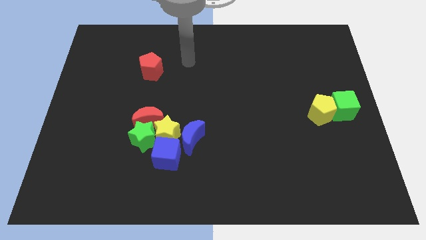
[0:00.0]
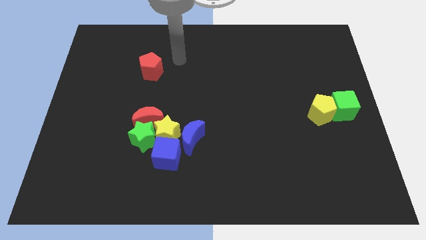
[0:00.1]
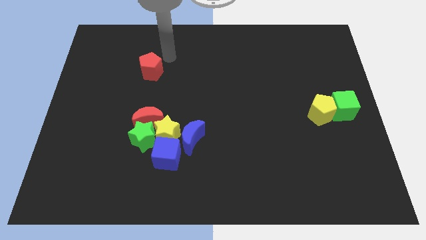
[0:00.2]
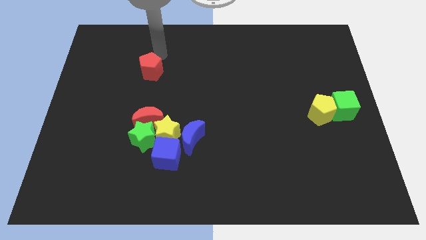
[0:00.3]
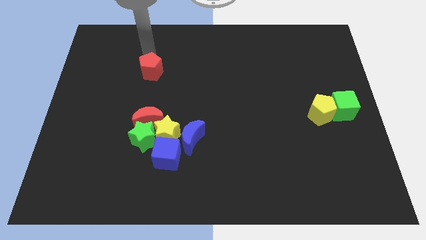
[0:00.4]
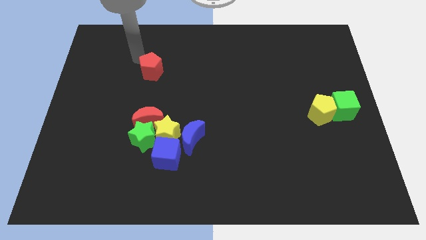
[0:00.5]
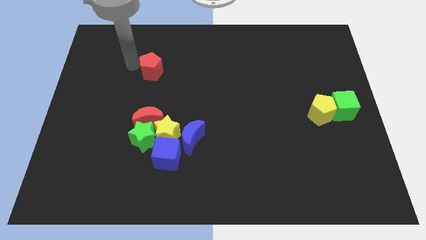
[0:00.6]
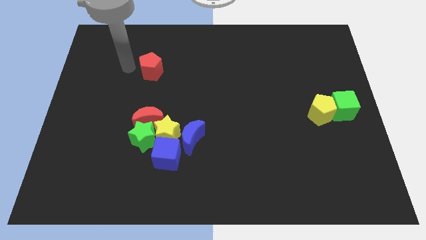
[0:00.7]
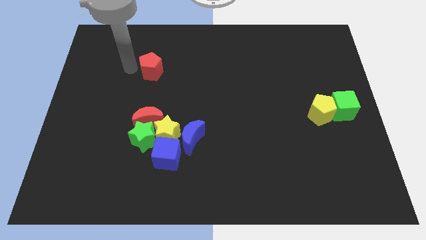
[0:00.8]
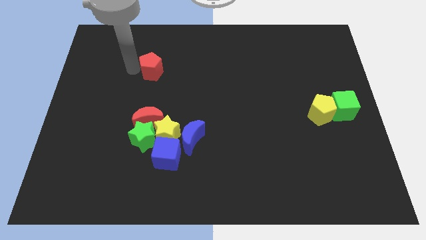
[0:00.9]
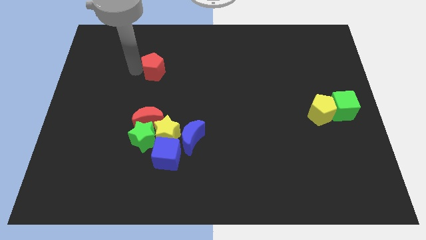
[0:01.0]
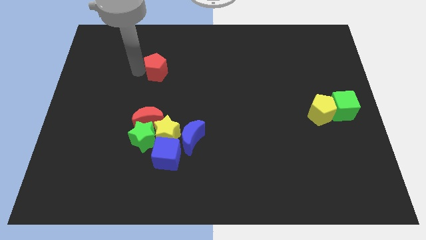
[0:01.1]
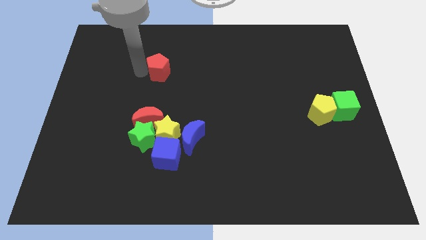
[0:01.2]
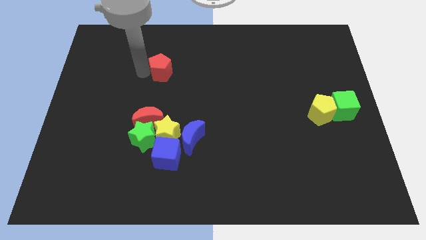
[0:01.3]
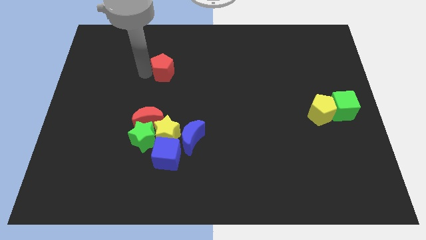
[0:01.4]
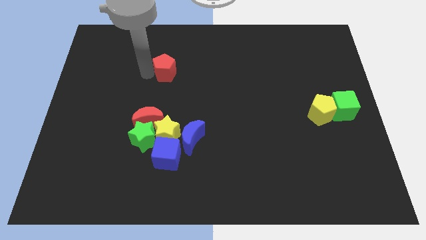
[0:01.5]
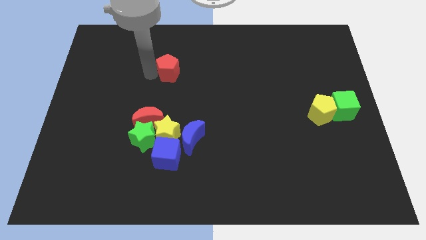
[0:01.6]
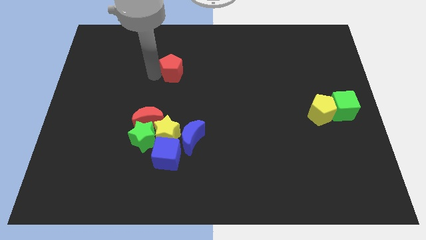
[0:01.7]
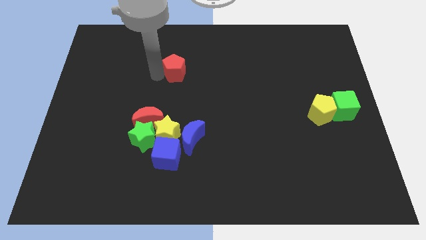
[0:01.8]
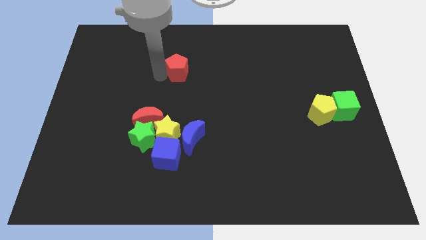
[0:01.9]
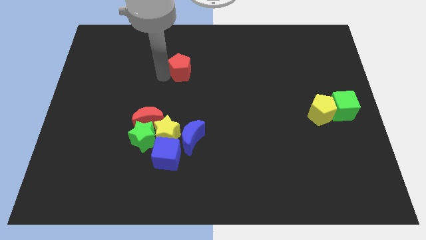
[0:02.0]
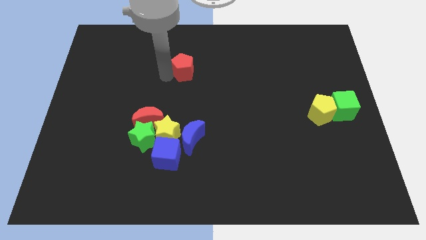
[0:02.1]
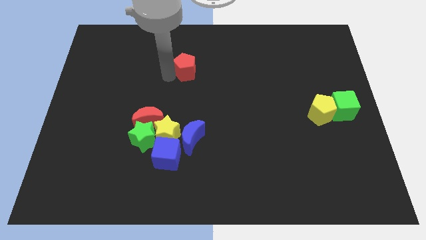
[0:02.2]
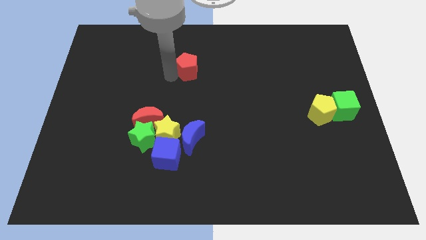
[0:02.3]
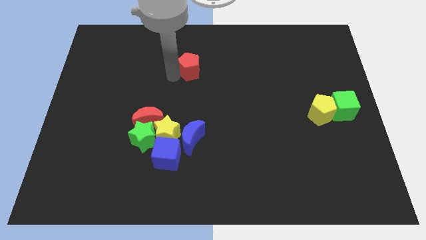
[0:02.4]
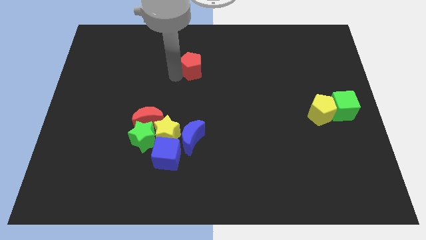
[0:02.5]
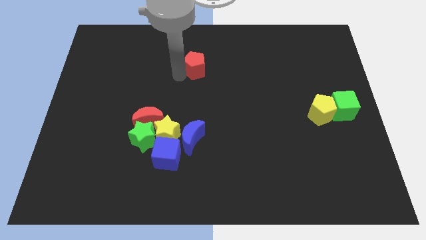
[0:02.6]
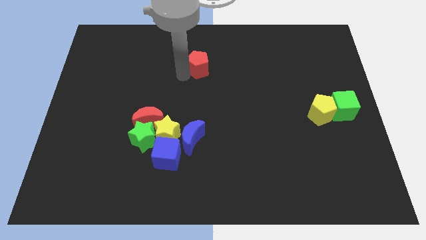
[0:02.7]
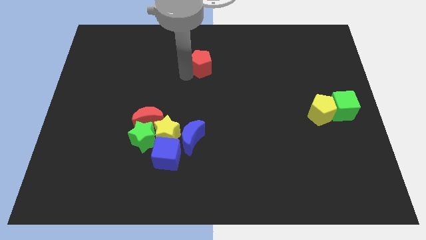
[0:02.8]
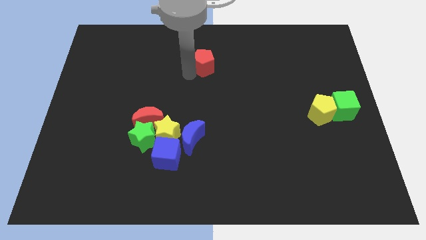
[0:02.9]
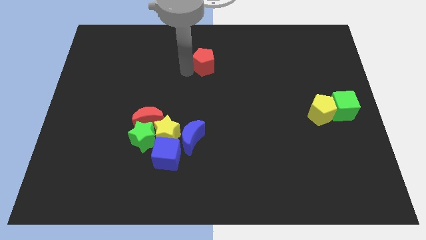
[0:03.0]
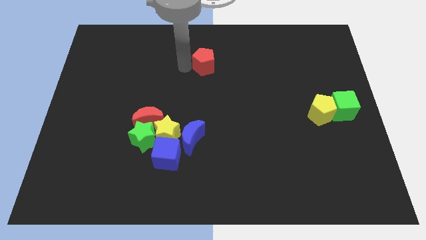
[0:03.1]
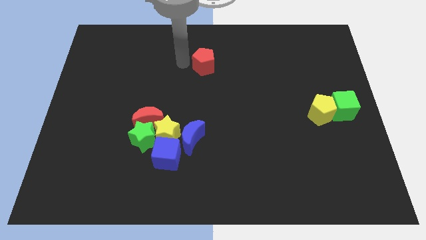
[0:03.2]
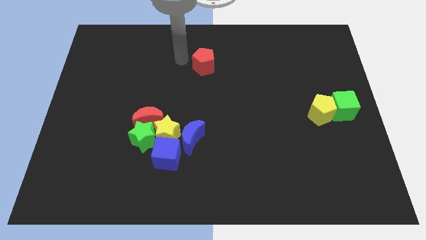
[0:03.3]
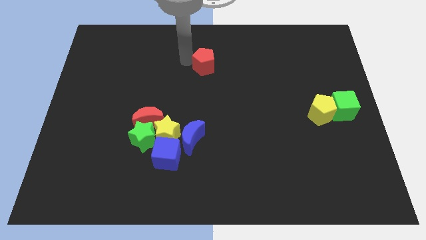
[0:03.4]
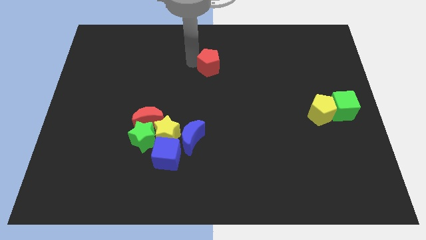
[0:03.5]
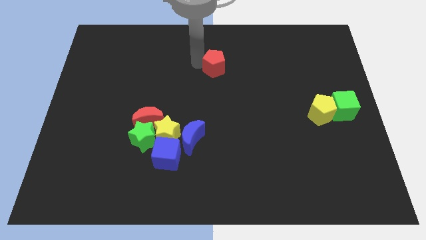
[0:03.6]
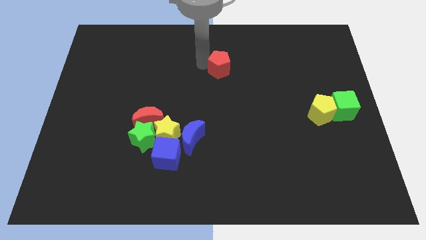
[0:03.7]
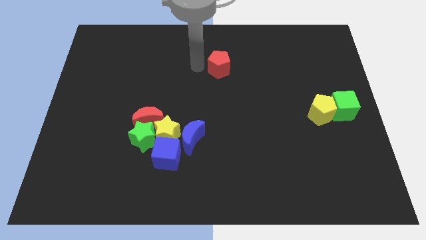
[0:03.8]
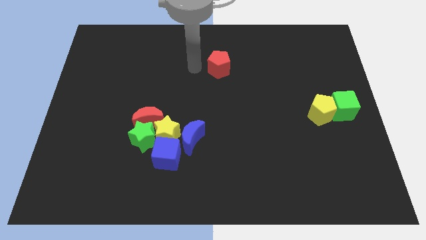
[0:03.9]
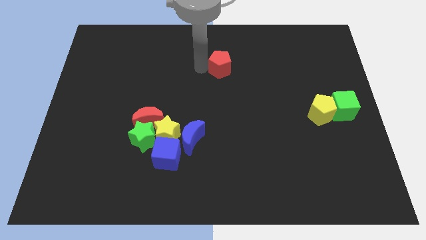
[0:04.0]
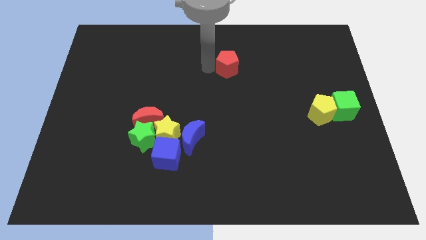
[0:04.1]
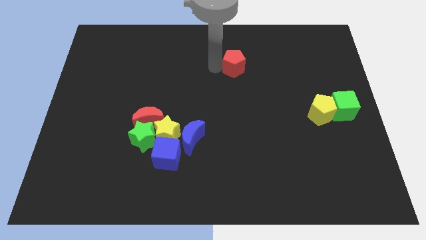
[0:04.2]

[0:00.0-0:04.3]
move the red pentagon to the right

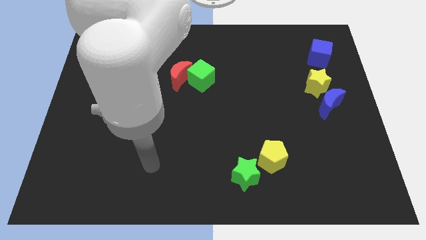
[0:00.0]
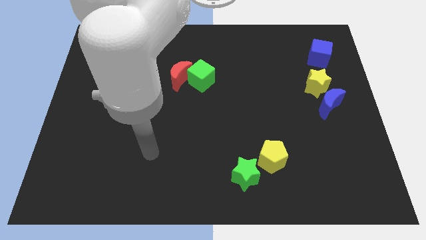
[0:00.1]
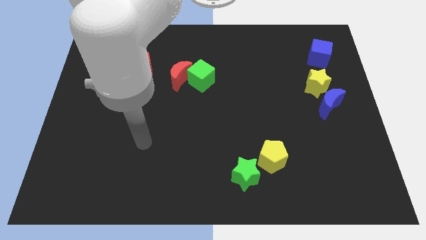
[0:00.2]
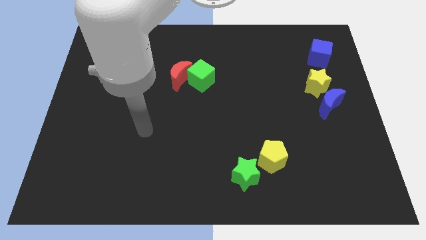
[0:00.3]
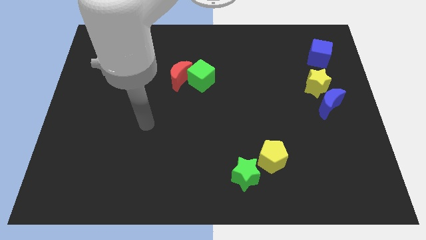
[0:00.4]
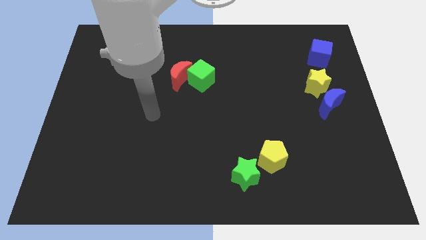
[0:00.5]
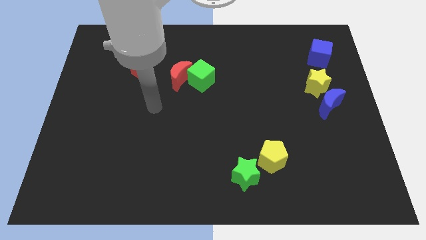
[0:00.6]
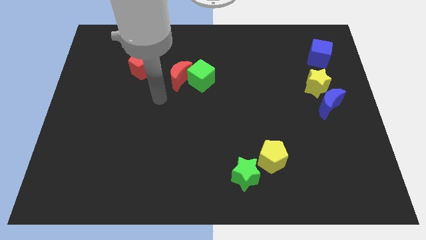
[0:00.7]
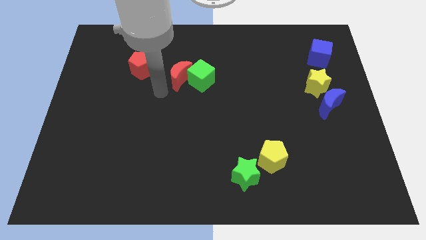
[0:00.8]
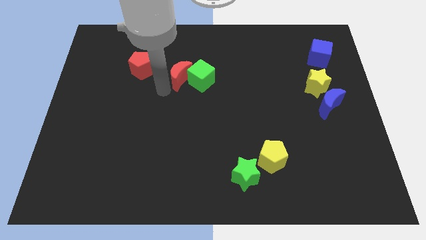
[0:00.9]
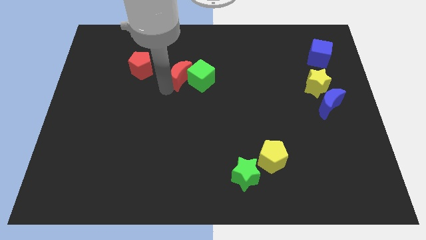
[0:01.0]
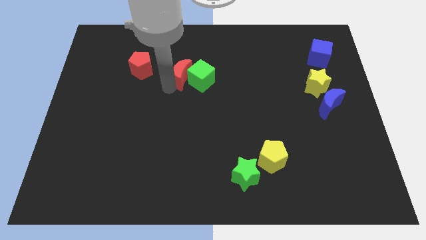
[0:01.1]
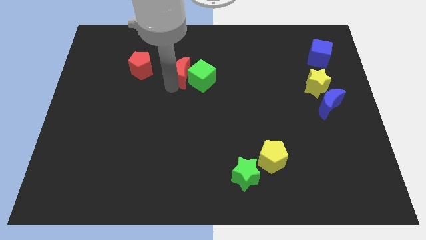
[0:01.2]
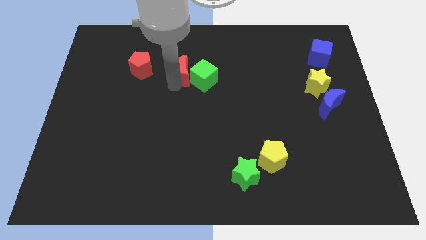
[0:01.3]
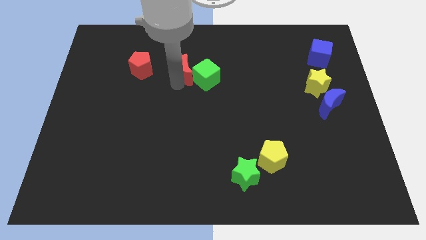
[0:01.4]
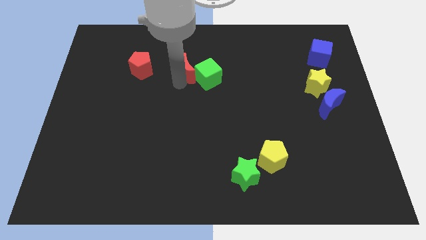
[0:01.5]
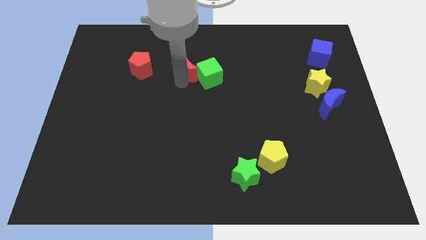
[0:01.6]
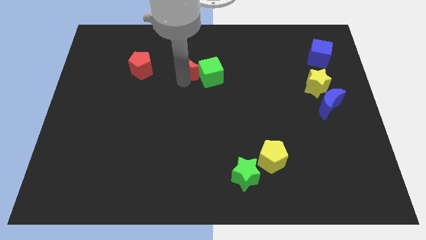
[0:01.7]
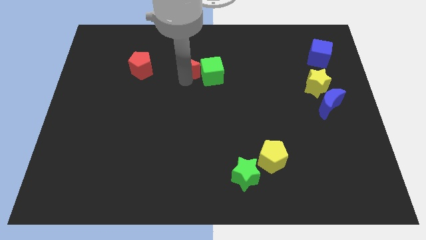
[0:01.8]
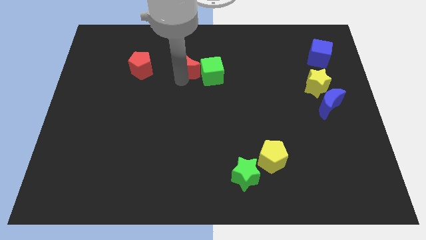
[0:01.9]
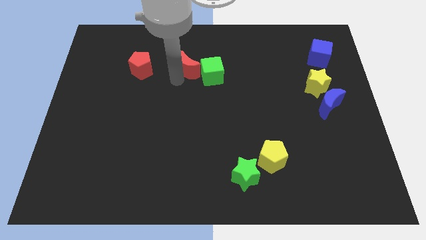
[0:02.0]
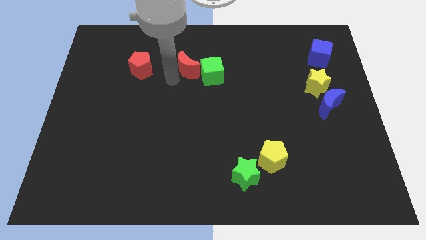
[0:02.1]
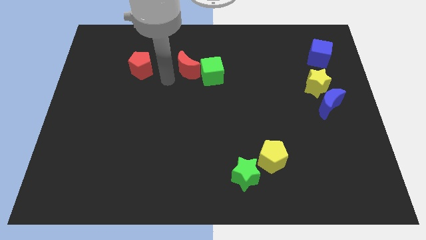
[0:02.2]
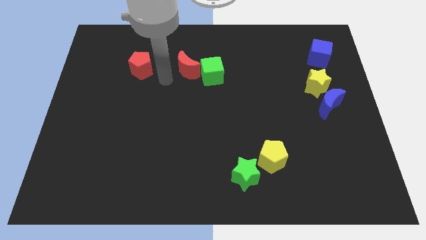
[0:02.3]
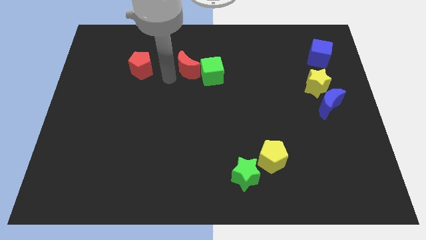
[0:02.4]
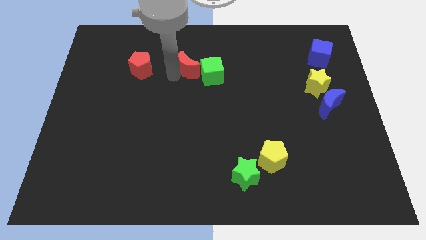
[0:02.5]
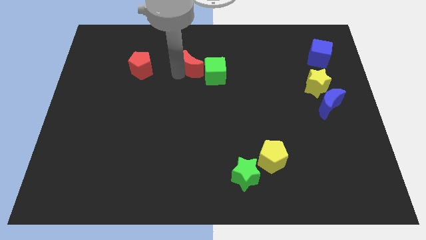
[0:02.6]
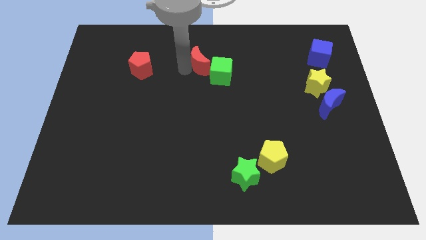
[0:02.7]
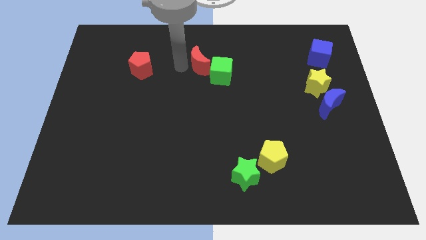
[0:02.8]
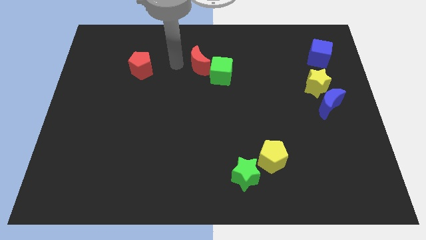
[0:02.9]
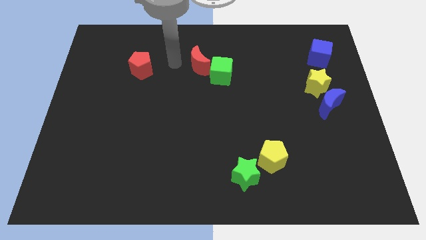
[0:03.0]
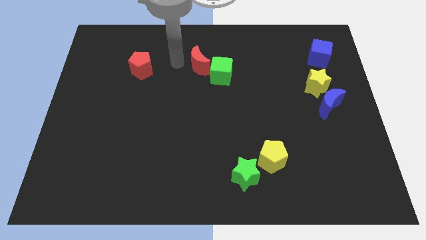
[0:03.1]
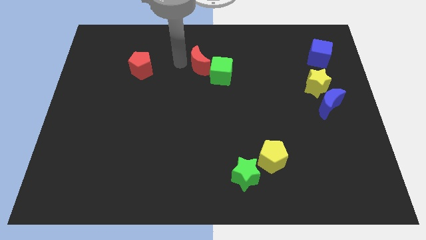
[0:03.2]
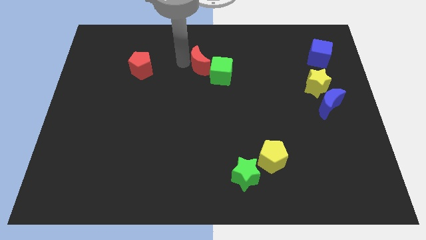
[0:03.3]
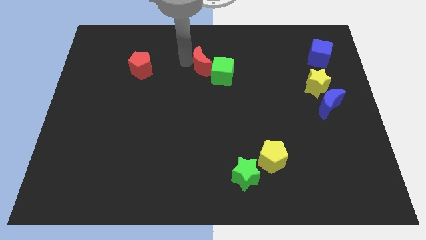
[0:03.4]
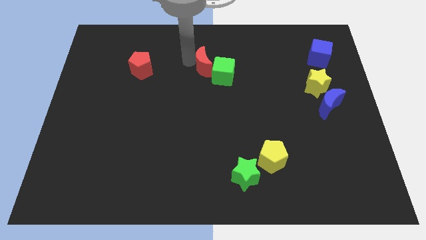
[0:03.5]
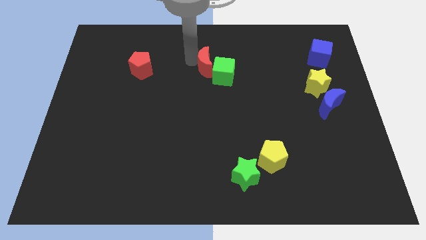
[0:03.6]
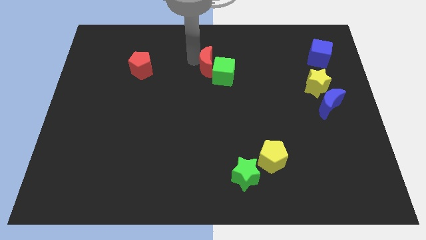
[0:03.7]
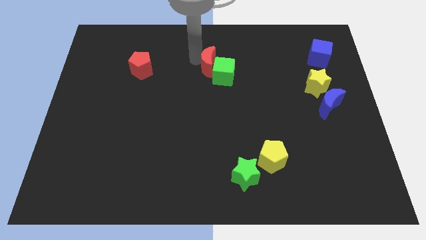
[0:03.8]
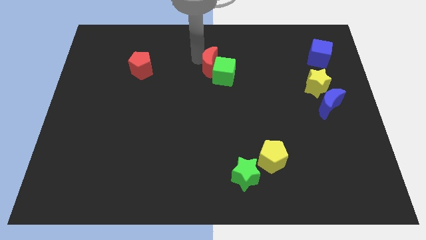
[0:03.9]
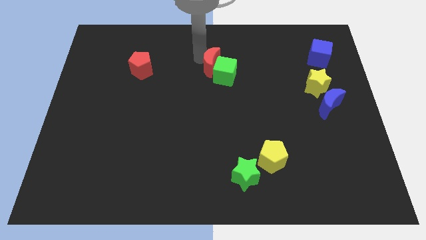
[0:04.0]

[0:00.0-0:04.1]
slightly move the red moon to the right
